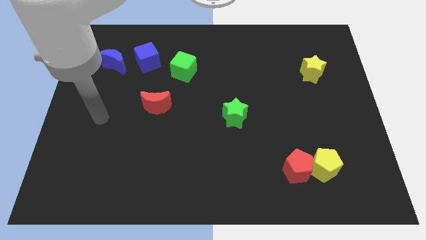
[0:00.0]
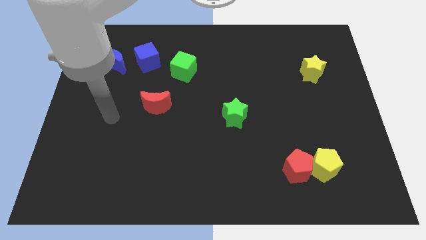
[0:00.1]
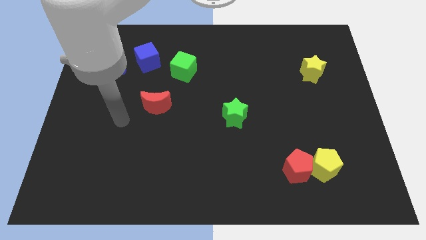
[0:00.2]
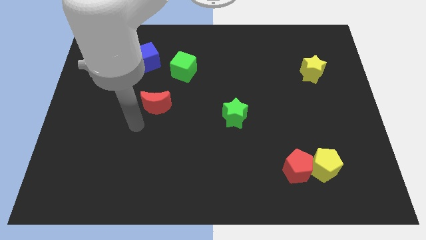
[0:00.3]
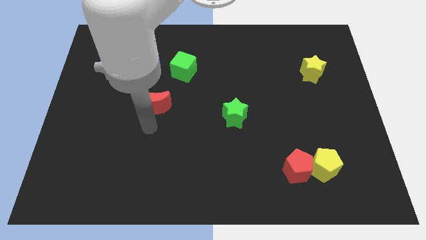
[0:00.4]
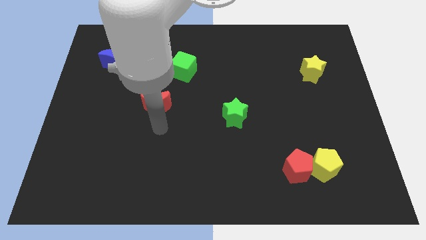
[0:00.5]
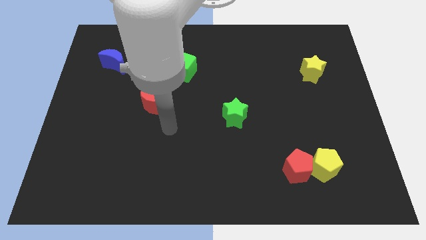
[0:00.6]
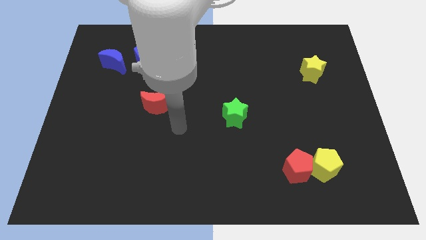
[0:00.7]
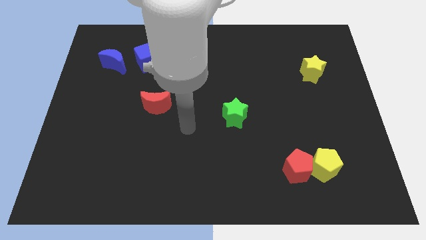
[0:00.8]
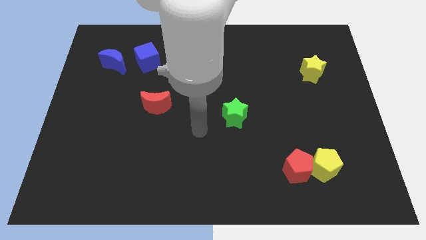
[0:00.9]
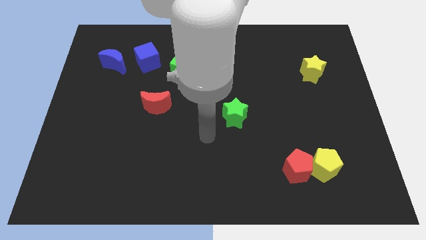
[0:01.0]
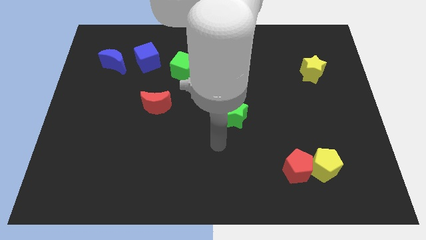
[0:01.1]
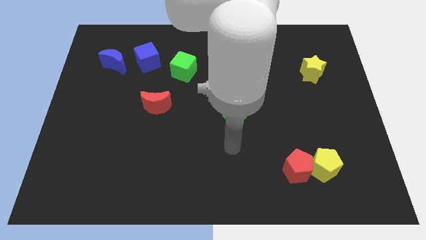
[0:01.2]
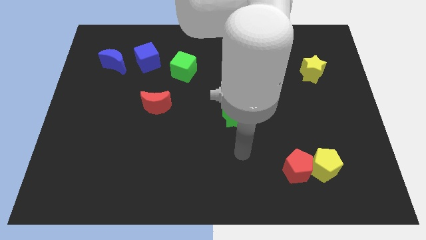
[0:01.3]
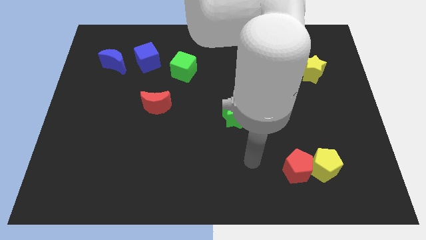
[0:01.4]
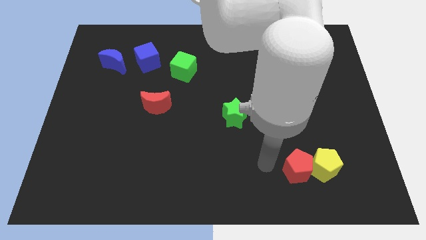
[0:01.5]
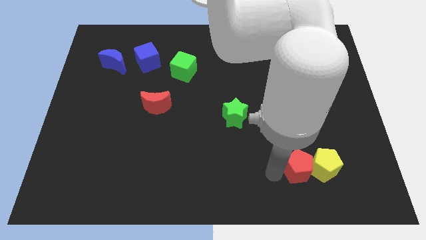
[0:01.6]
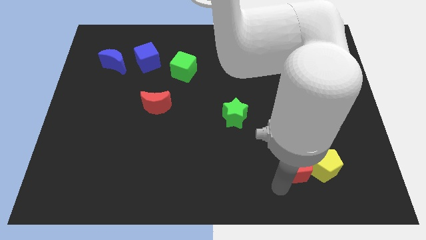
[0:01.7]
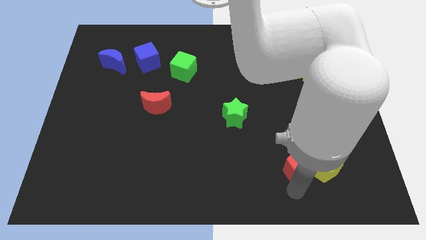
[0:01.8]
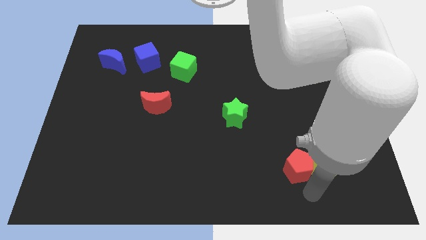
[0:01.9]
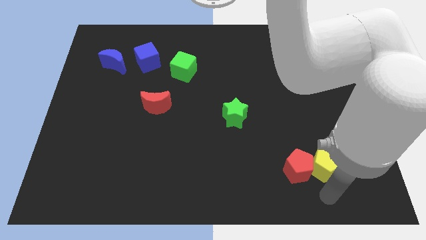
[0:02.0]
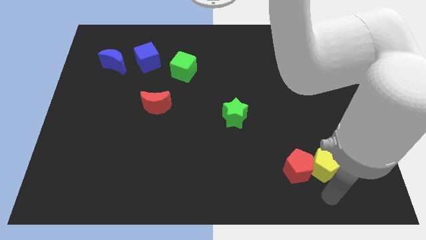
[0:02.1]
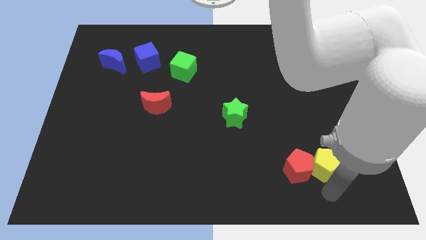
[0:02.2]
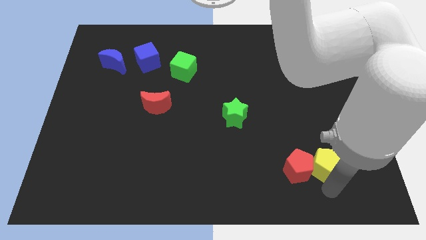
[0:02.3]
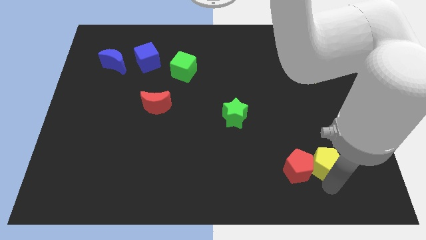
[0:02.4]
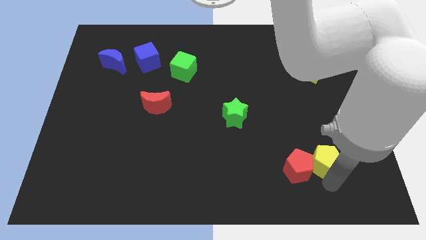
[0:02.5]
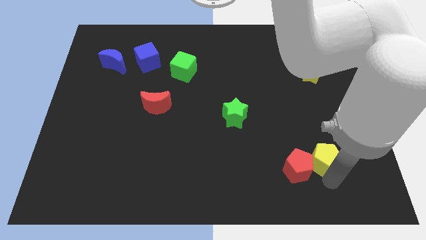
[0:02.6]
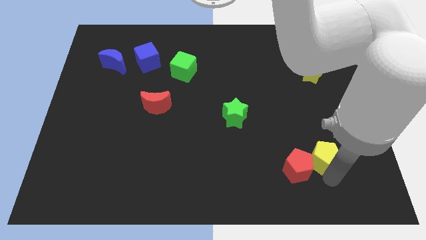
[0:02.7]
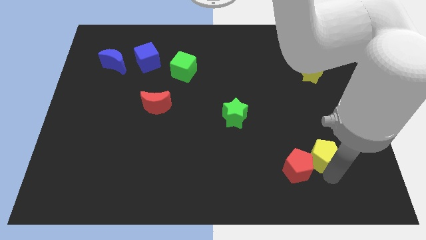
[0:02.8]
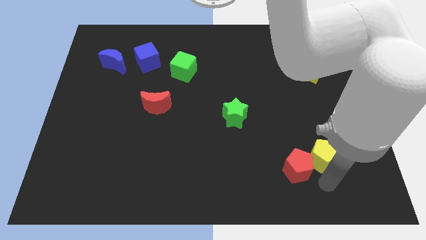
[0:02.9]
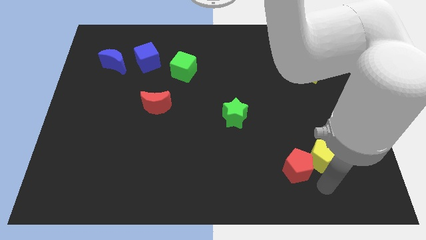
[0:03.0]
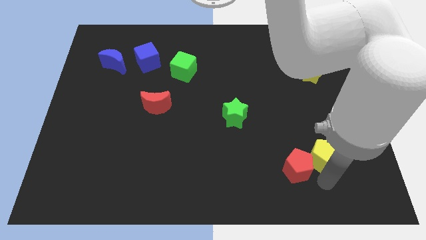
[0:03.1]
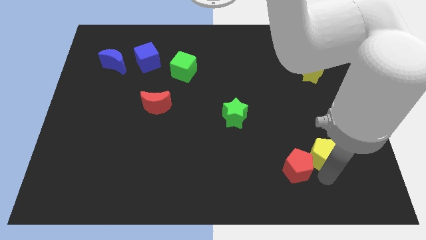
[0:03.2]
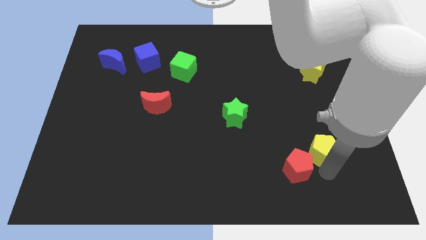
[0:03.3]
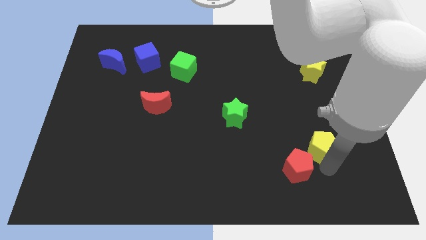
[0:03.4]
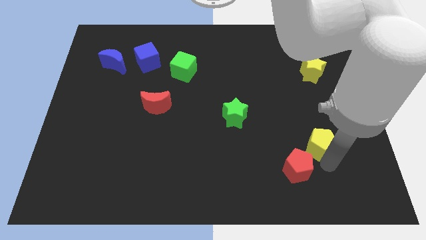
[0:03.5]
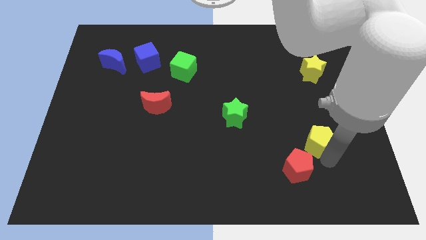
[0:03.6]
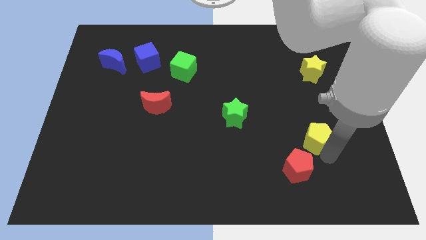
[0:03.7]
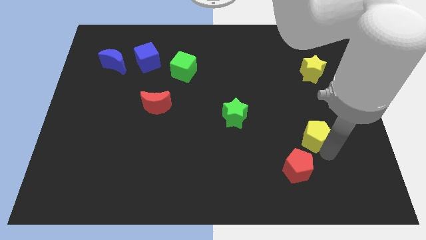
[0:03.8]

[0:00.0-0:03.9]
slightly push the yellow pentagon up

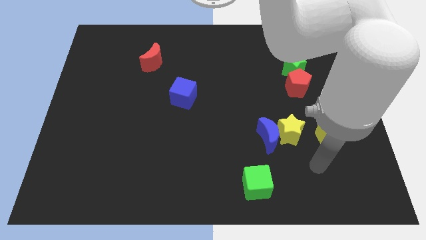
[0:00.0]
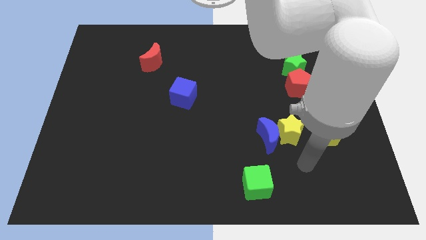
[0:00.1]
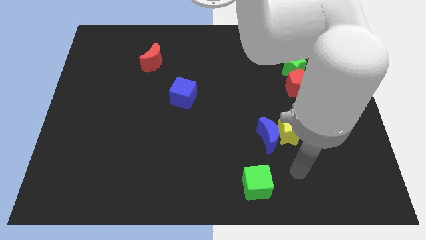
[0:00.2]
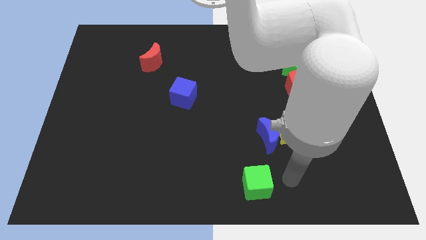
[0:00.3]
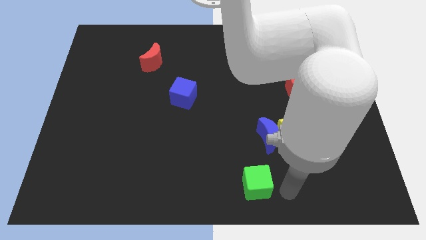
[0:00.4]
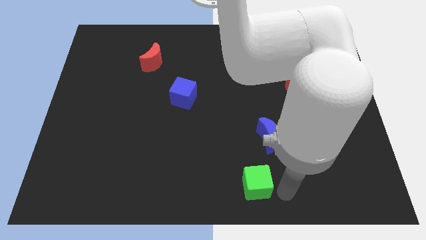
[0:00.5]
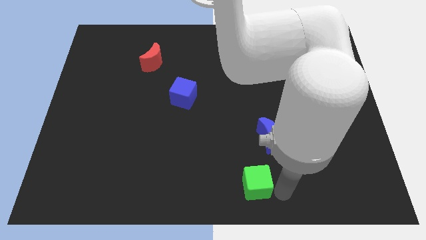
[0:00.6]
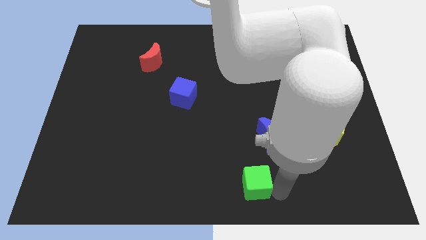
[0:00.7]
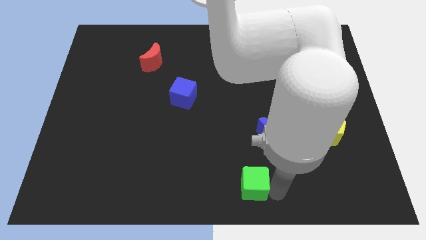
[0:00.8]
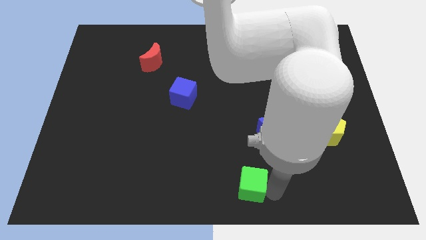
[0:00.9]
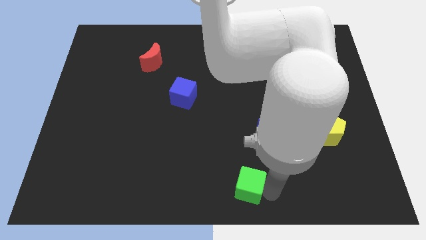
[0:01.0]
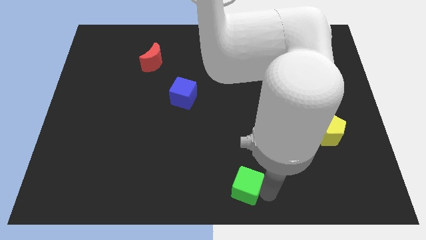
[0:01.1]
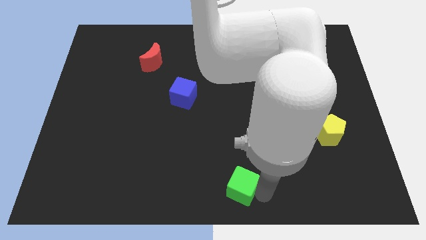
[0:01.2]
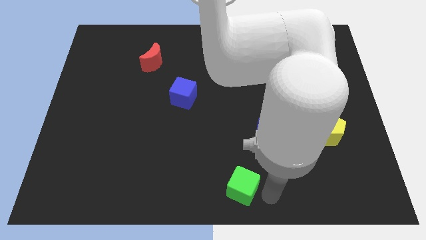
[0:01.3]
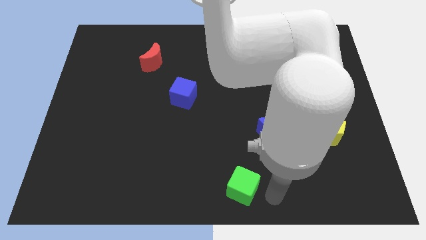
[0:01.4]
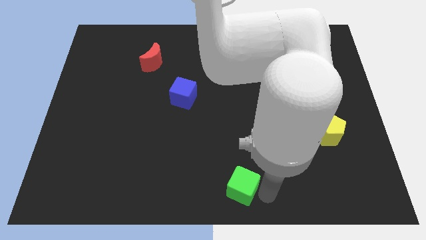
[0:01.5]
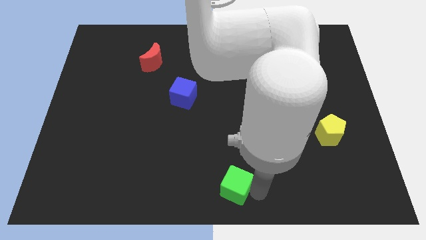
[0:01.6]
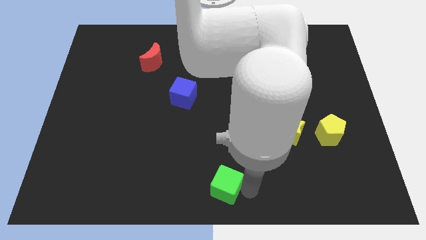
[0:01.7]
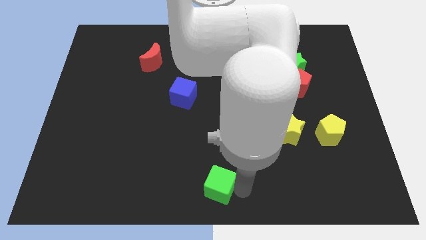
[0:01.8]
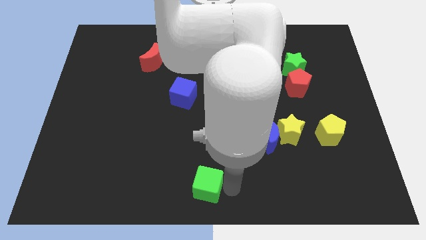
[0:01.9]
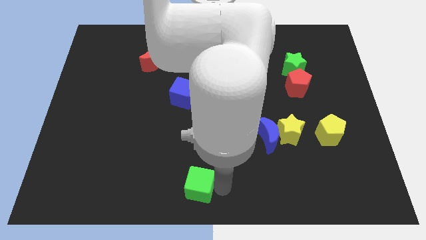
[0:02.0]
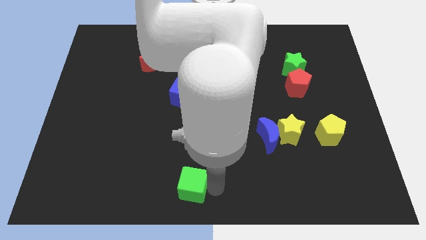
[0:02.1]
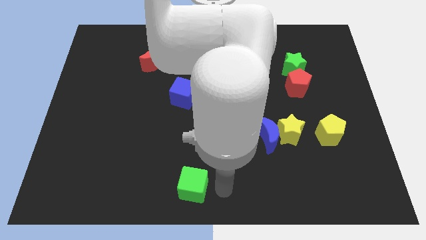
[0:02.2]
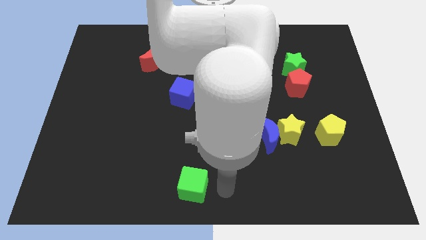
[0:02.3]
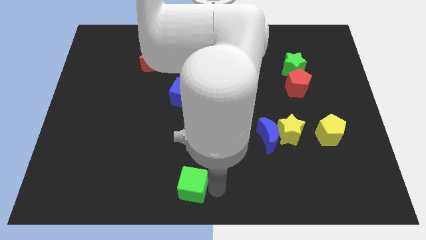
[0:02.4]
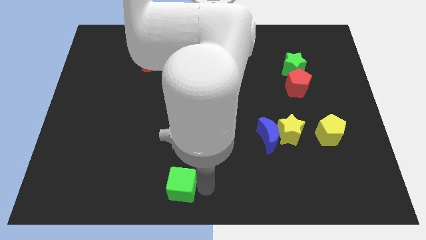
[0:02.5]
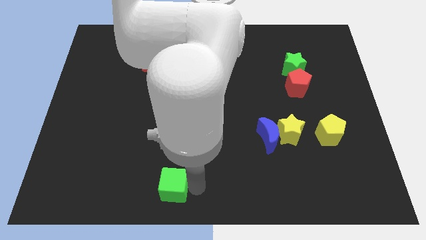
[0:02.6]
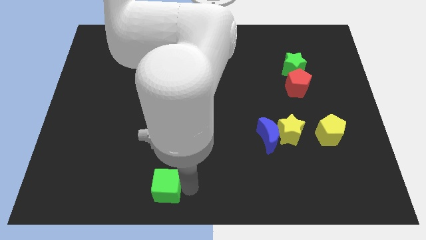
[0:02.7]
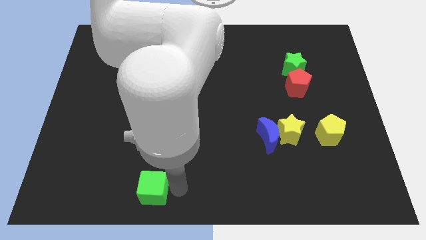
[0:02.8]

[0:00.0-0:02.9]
push the green cube to the left

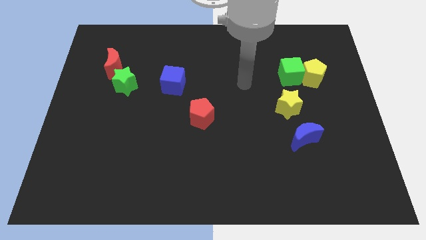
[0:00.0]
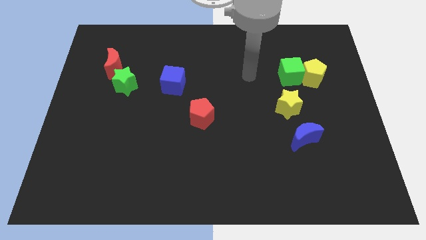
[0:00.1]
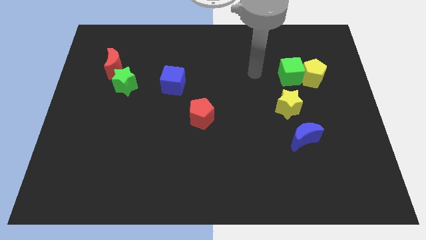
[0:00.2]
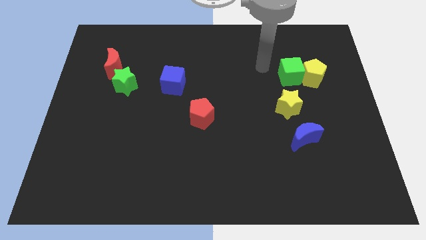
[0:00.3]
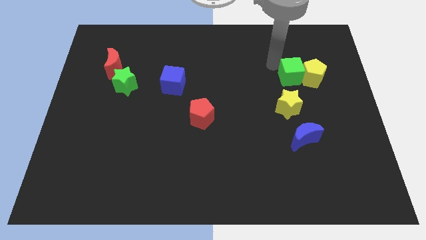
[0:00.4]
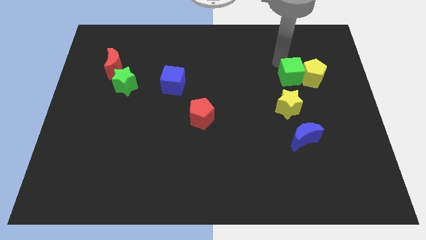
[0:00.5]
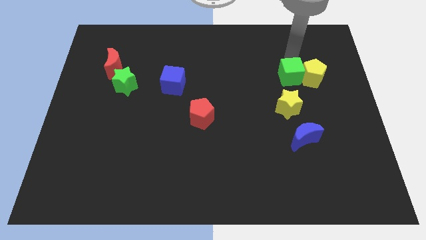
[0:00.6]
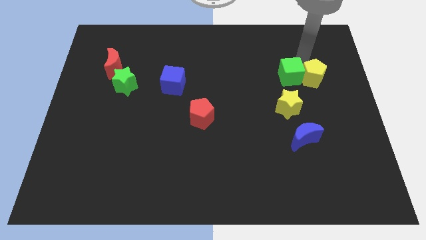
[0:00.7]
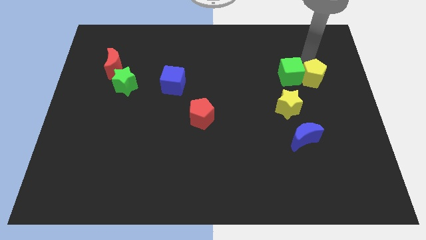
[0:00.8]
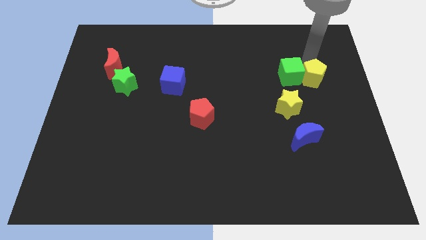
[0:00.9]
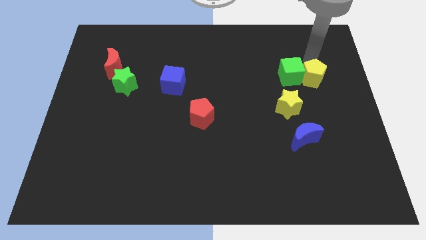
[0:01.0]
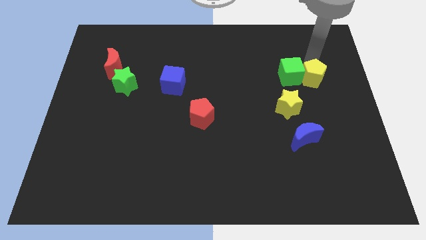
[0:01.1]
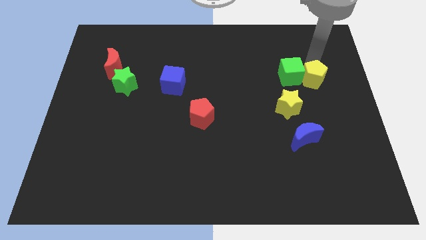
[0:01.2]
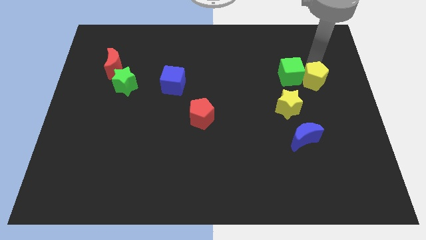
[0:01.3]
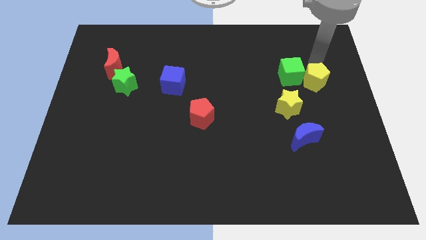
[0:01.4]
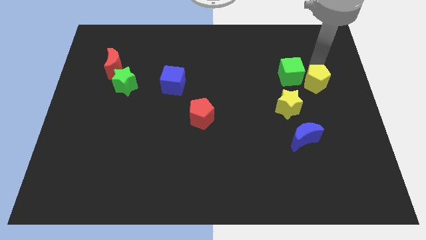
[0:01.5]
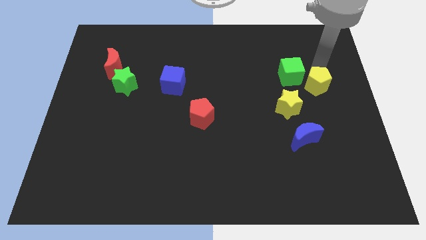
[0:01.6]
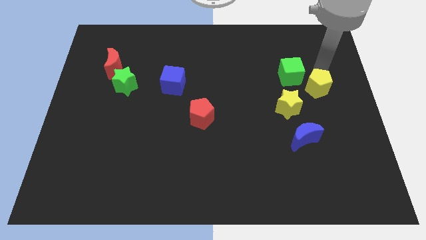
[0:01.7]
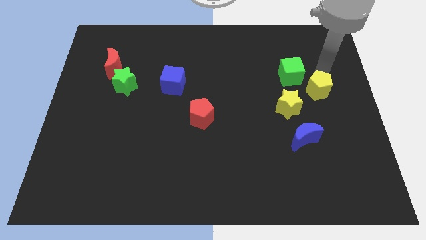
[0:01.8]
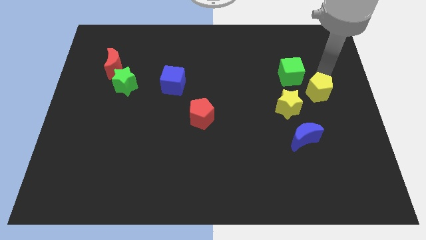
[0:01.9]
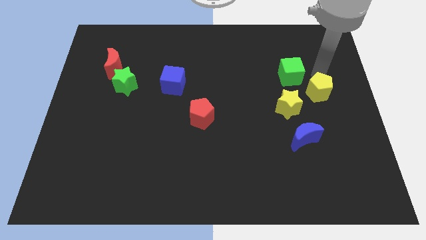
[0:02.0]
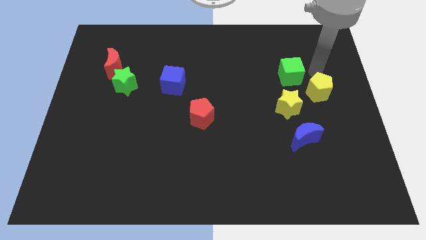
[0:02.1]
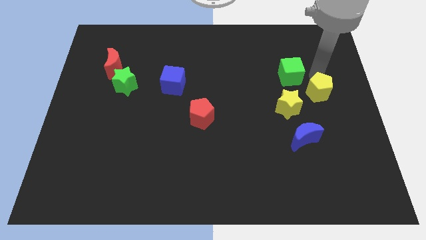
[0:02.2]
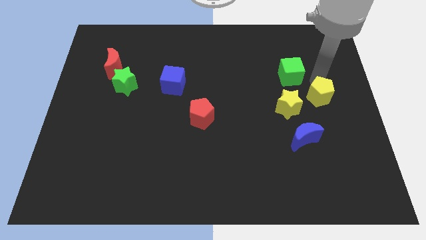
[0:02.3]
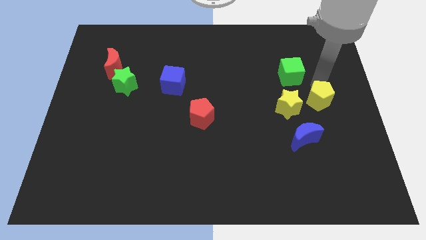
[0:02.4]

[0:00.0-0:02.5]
slide the yellow pentagon down a bit
